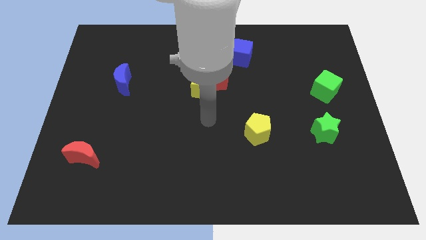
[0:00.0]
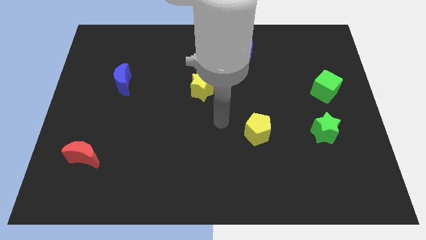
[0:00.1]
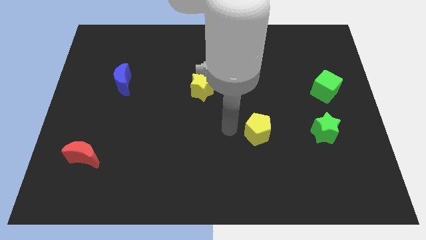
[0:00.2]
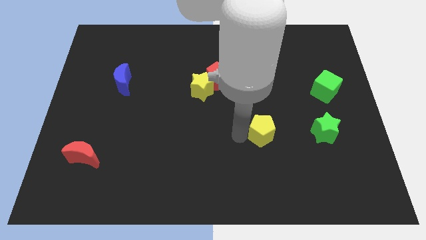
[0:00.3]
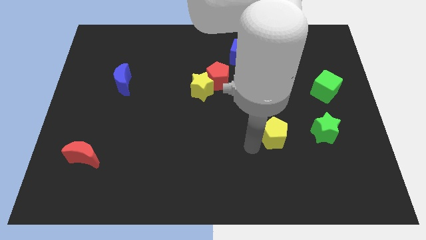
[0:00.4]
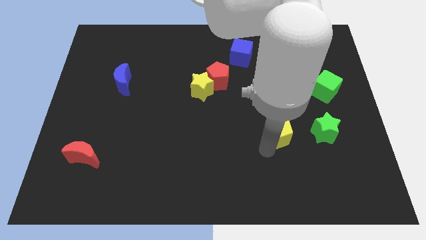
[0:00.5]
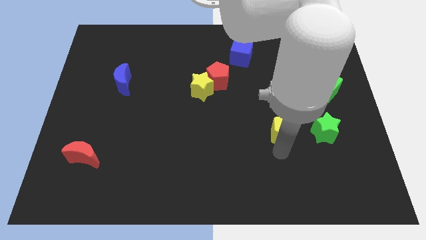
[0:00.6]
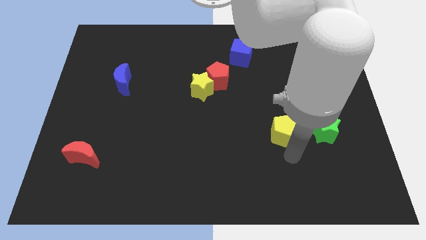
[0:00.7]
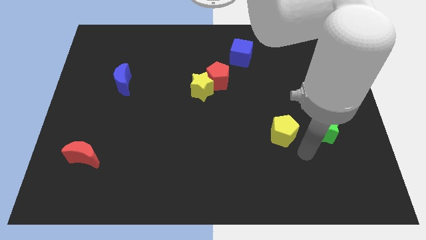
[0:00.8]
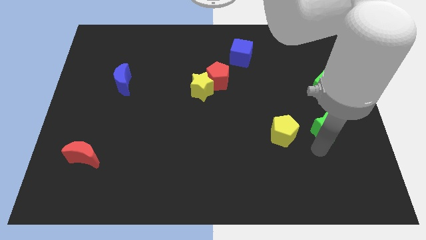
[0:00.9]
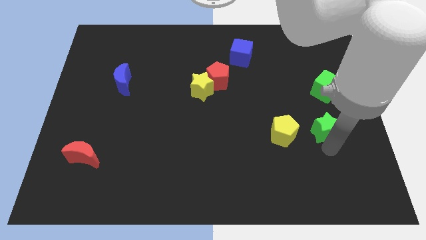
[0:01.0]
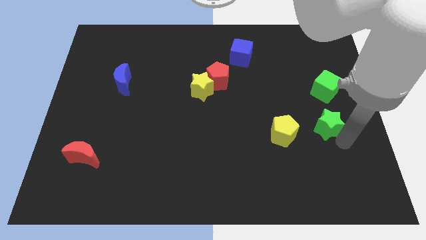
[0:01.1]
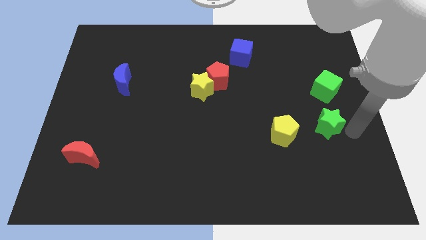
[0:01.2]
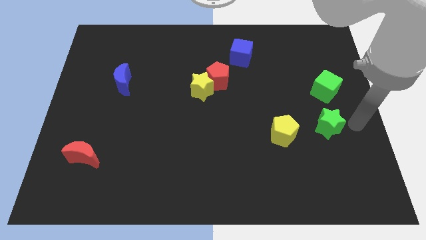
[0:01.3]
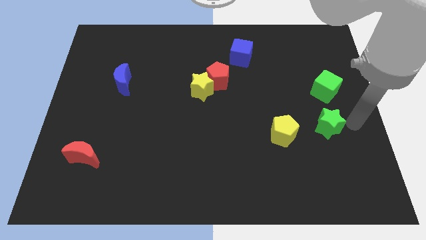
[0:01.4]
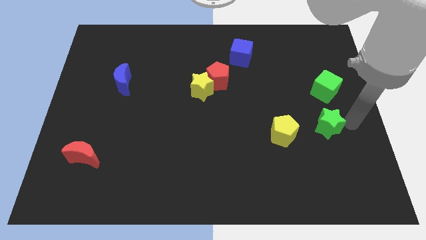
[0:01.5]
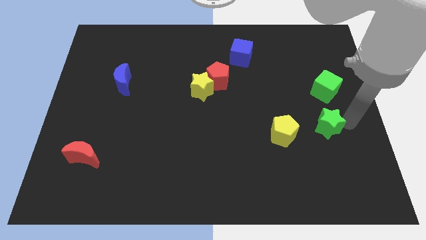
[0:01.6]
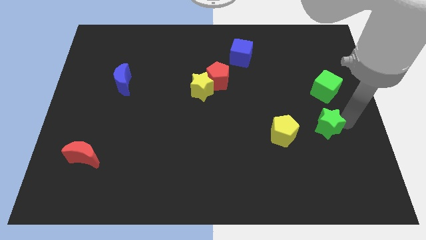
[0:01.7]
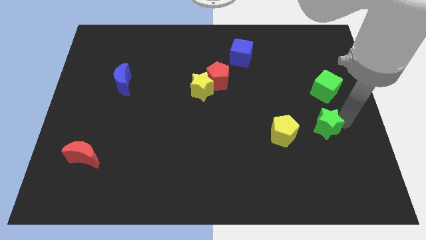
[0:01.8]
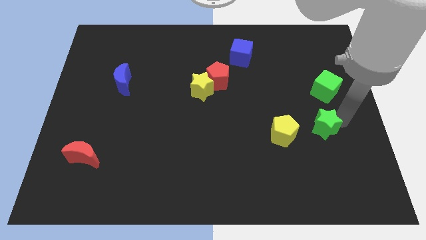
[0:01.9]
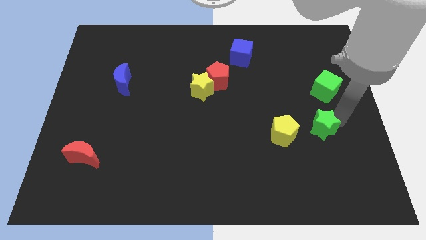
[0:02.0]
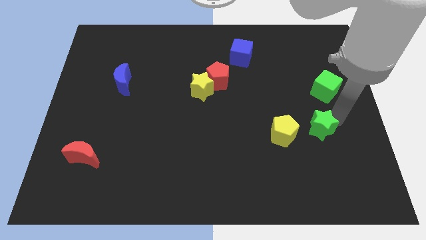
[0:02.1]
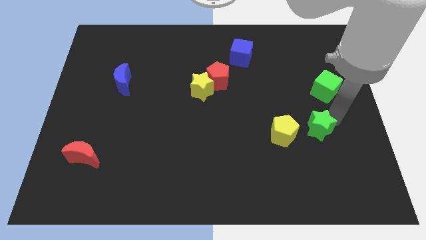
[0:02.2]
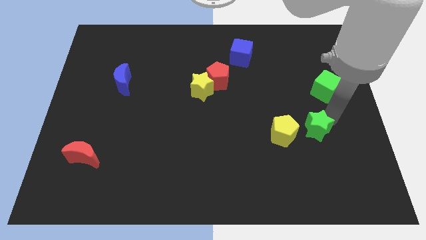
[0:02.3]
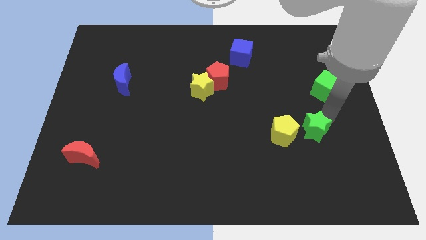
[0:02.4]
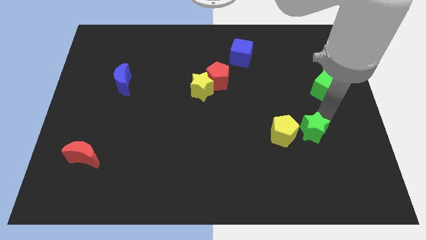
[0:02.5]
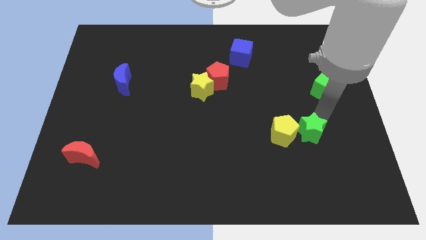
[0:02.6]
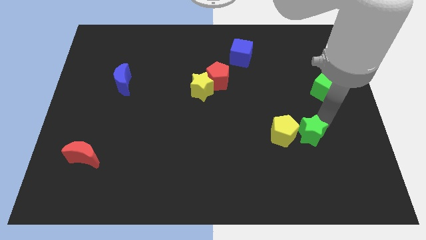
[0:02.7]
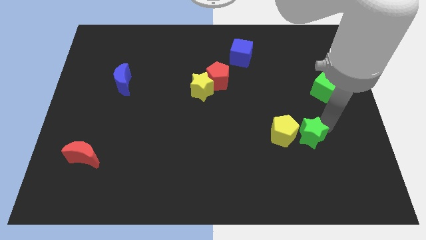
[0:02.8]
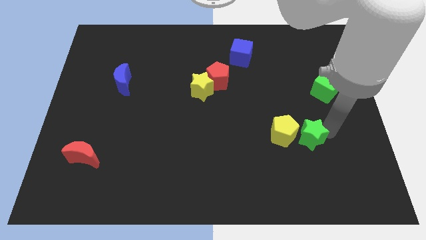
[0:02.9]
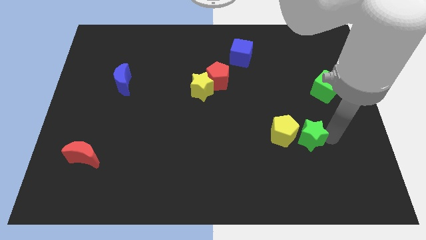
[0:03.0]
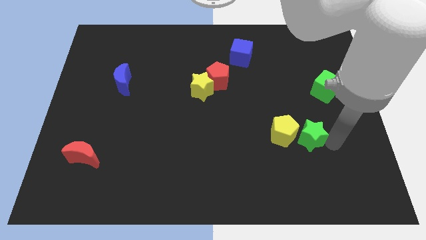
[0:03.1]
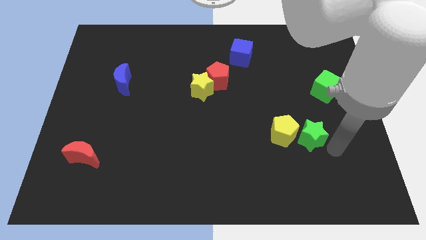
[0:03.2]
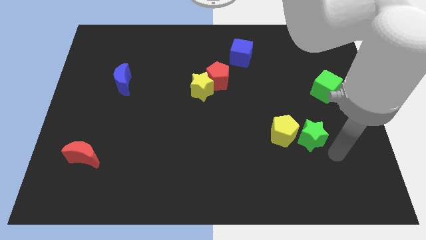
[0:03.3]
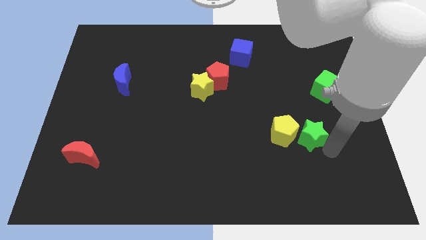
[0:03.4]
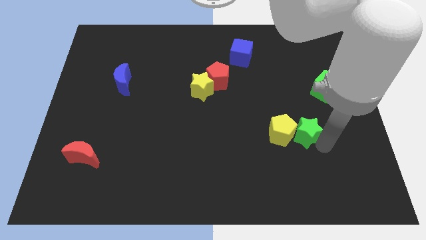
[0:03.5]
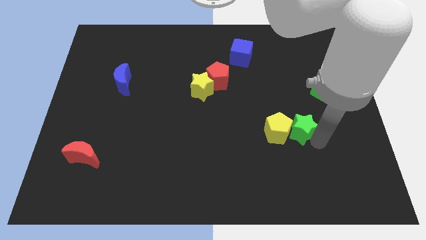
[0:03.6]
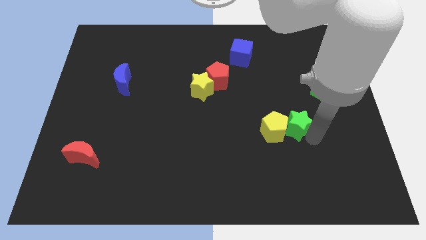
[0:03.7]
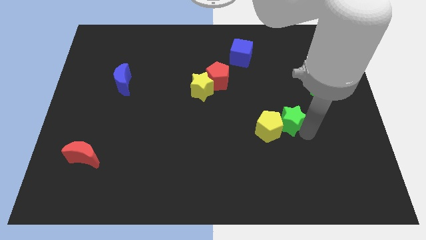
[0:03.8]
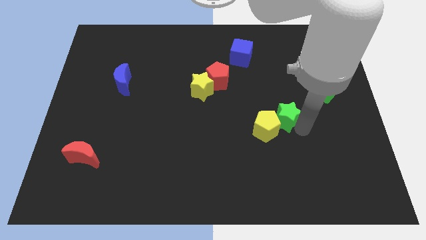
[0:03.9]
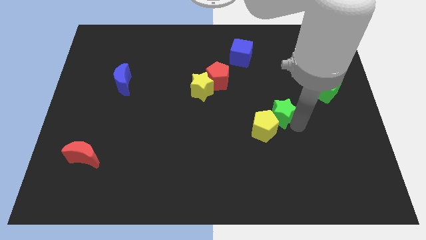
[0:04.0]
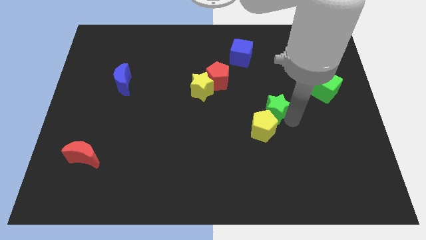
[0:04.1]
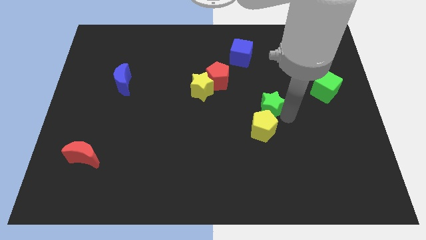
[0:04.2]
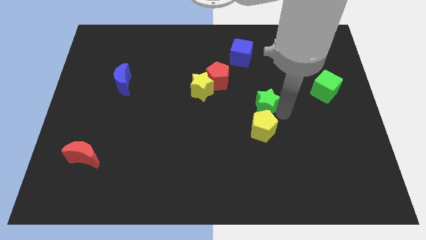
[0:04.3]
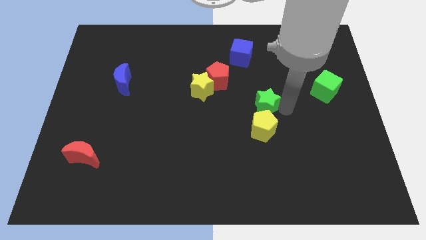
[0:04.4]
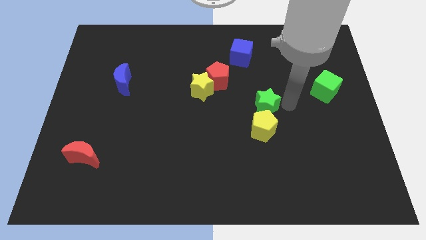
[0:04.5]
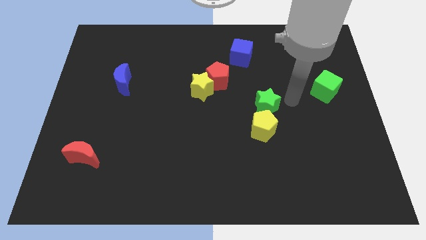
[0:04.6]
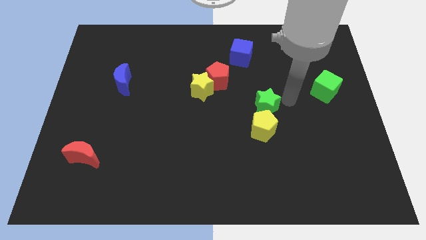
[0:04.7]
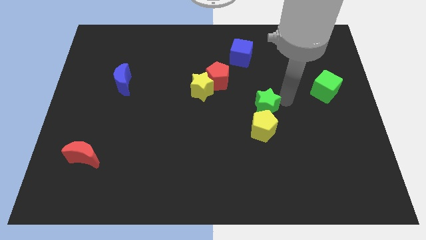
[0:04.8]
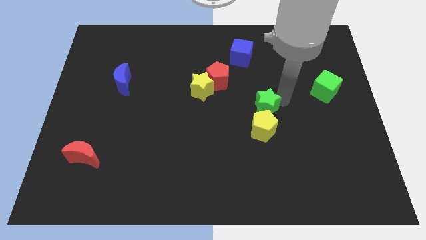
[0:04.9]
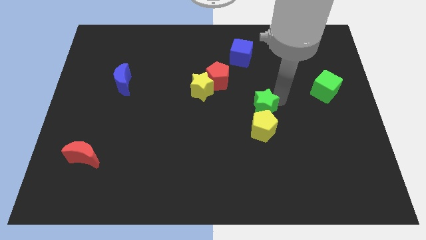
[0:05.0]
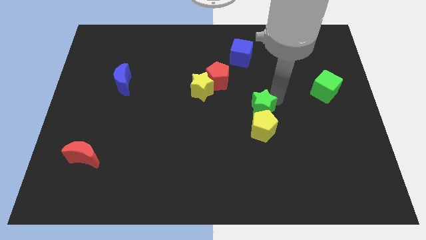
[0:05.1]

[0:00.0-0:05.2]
move the green star to the top left side of the yellow pentagon

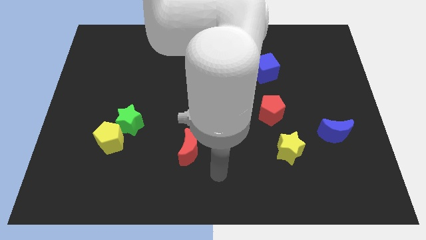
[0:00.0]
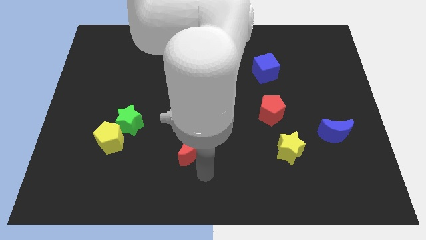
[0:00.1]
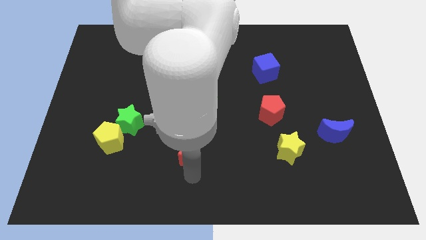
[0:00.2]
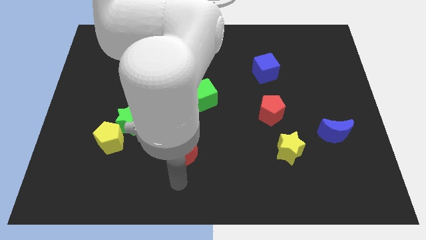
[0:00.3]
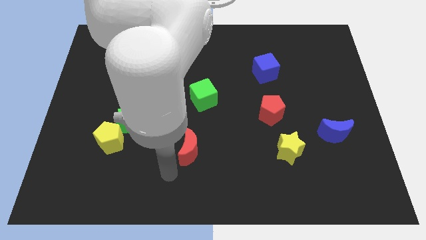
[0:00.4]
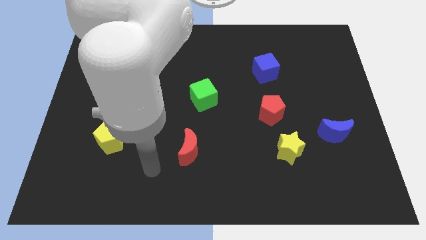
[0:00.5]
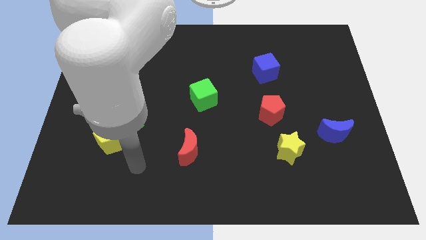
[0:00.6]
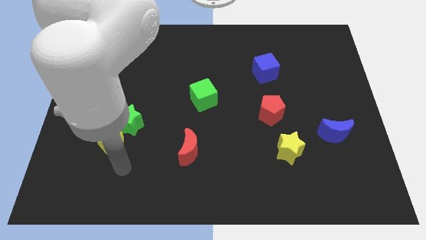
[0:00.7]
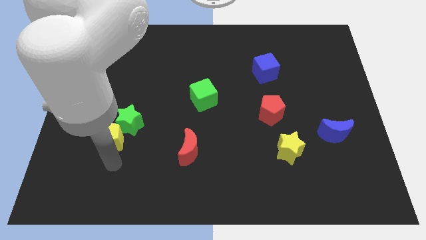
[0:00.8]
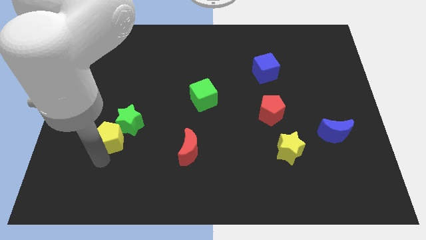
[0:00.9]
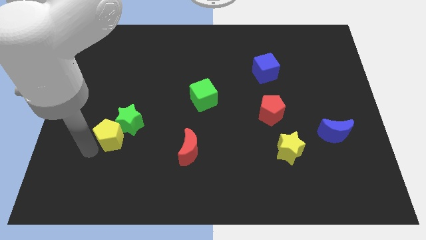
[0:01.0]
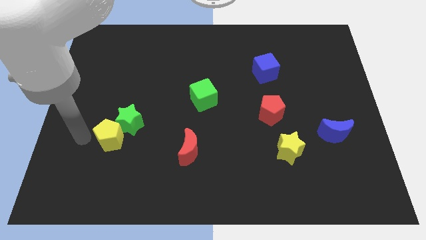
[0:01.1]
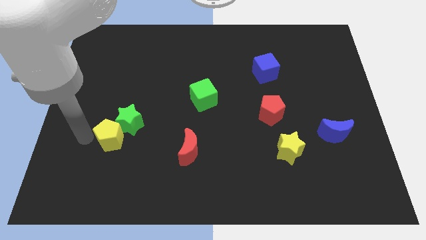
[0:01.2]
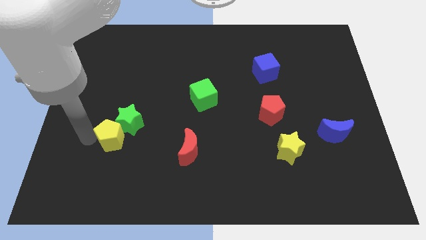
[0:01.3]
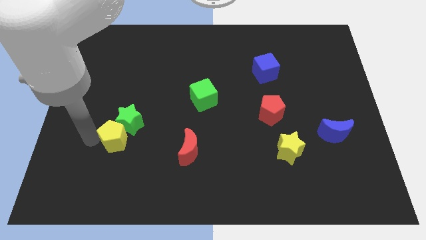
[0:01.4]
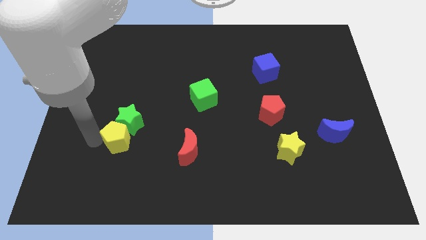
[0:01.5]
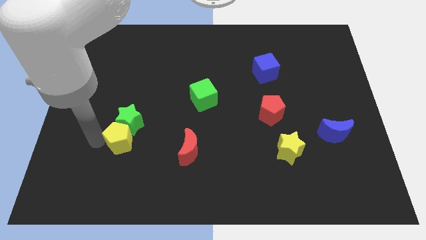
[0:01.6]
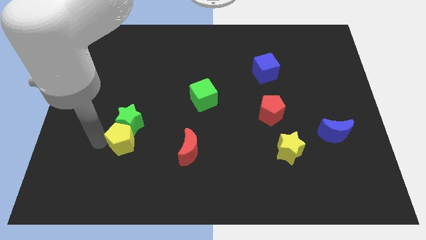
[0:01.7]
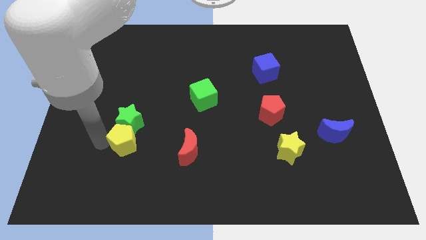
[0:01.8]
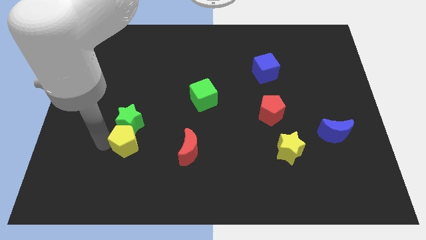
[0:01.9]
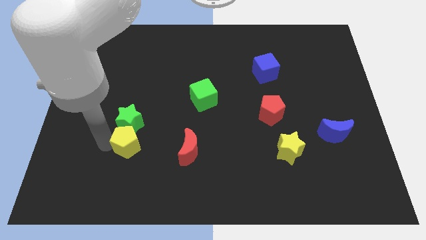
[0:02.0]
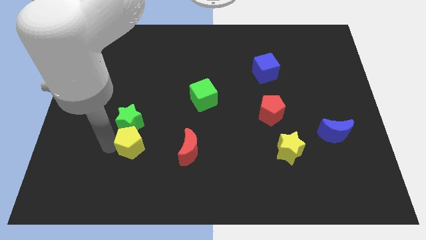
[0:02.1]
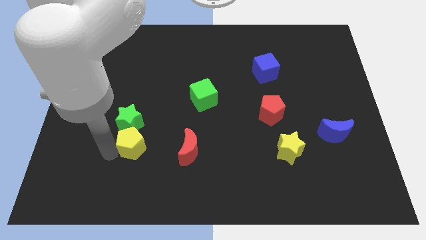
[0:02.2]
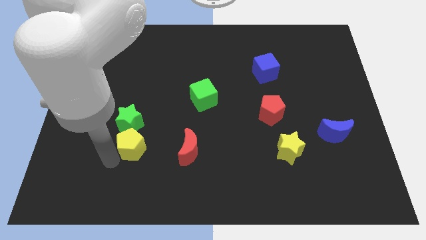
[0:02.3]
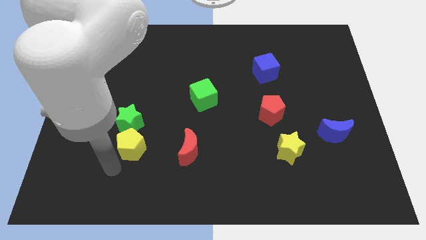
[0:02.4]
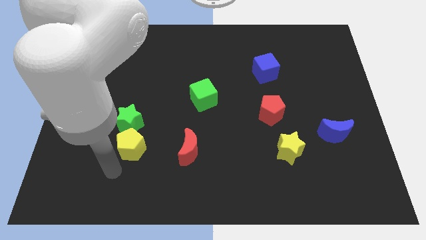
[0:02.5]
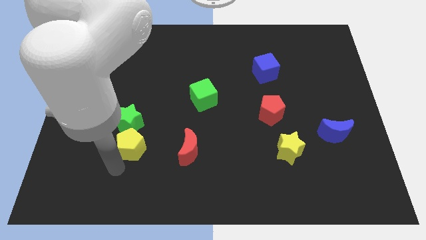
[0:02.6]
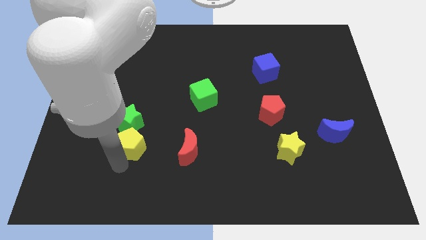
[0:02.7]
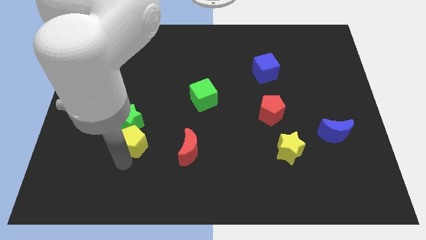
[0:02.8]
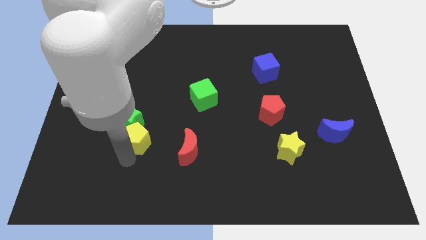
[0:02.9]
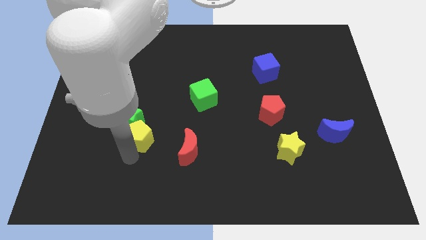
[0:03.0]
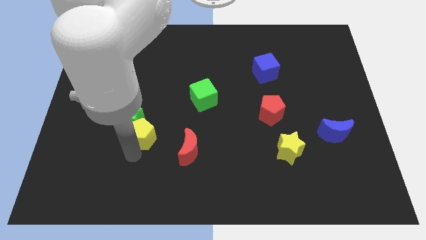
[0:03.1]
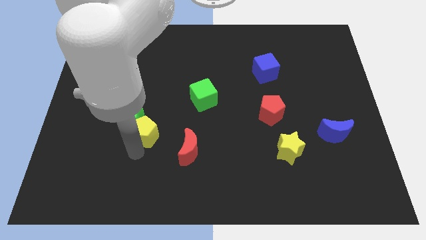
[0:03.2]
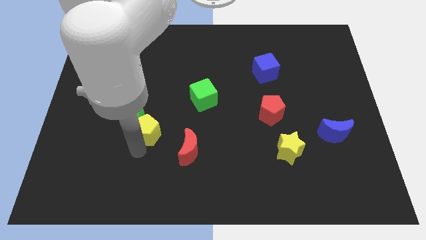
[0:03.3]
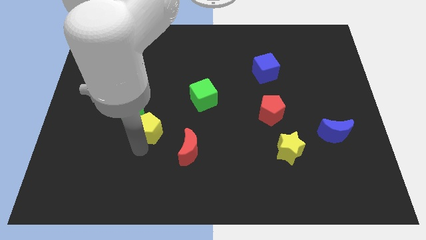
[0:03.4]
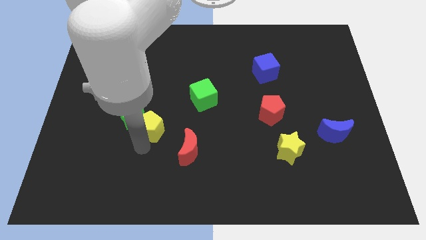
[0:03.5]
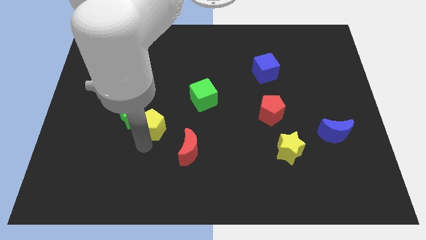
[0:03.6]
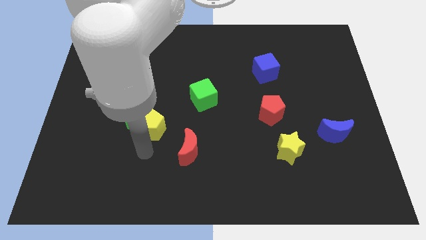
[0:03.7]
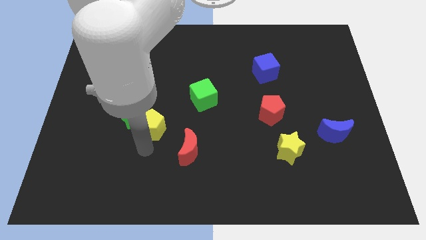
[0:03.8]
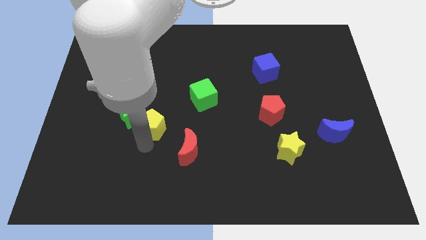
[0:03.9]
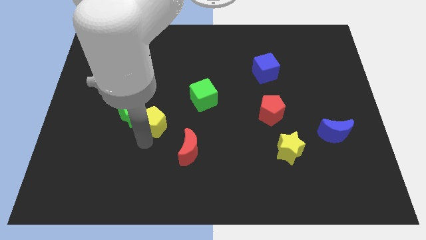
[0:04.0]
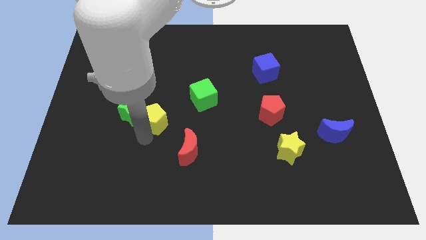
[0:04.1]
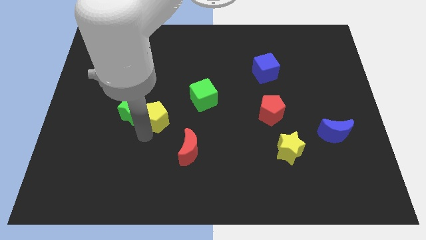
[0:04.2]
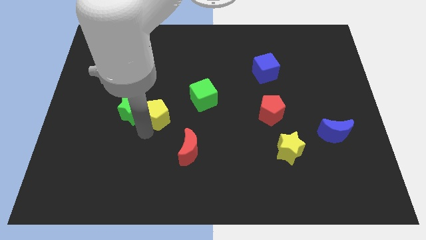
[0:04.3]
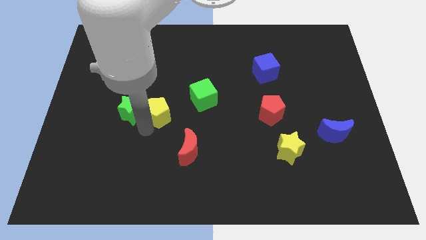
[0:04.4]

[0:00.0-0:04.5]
move the yellow pentagon to the left side of the green cube
